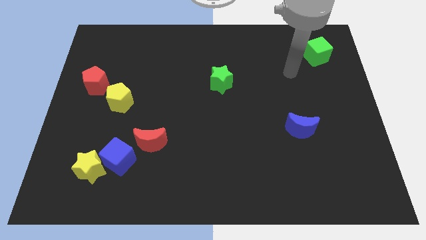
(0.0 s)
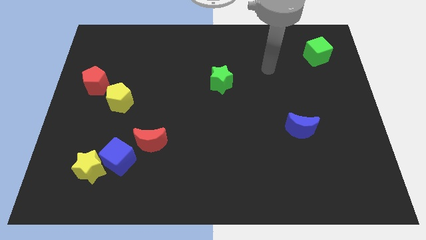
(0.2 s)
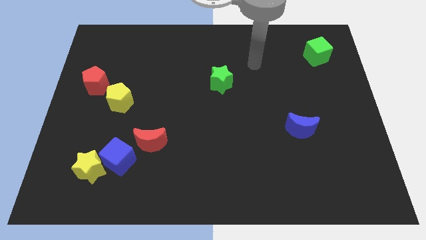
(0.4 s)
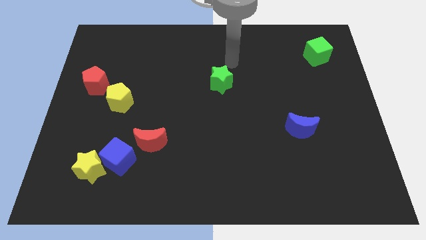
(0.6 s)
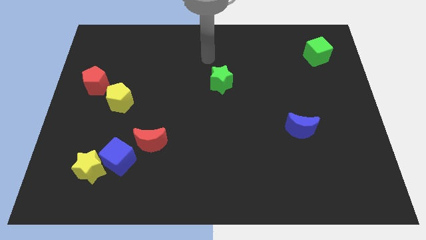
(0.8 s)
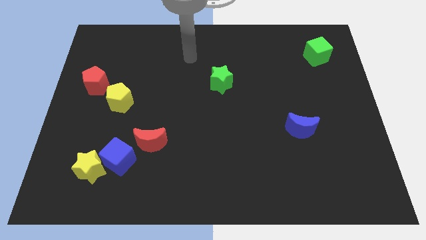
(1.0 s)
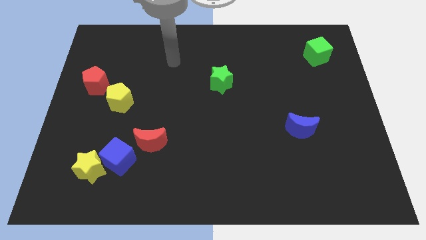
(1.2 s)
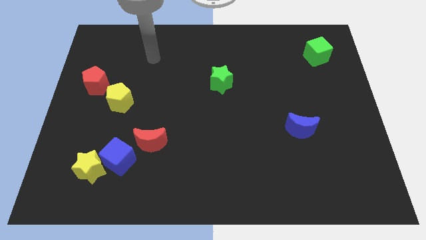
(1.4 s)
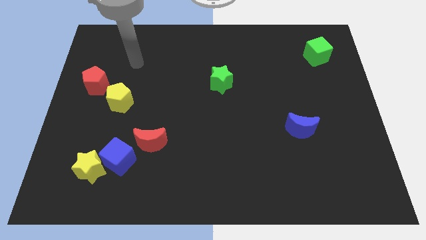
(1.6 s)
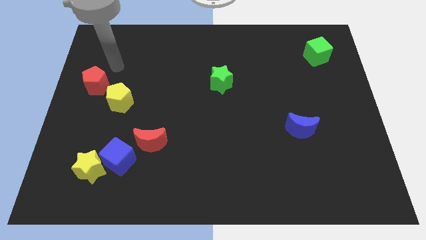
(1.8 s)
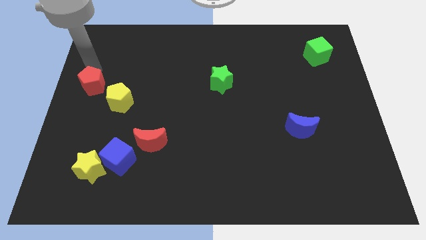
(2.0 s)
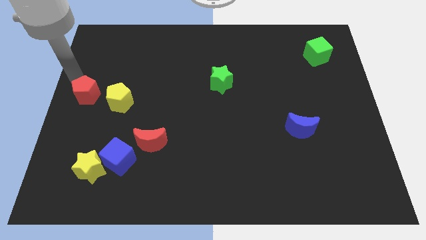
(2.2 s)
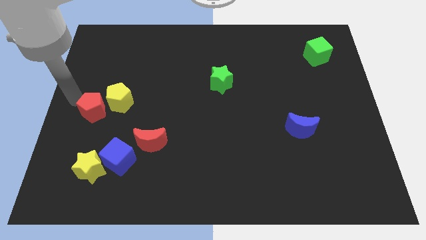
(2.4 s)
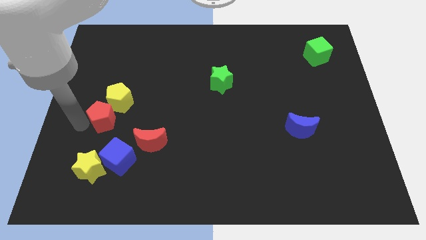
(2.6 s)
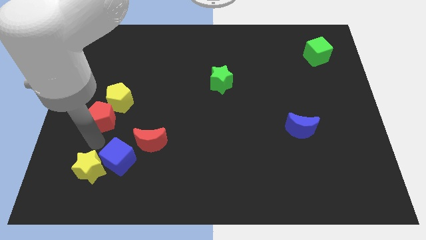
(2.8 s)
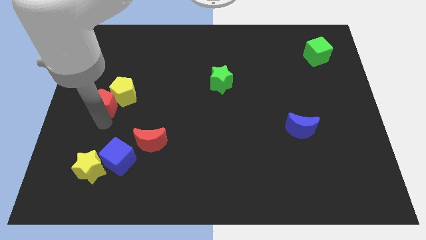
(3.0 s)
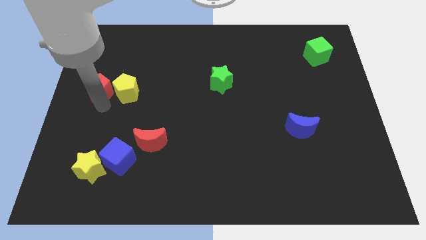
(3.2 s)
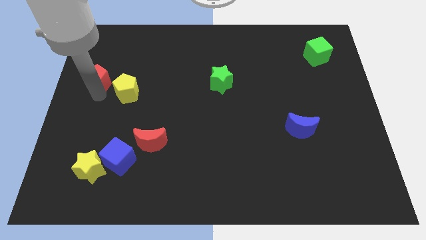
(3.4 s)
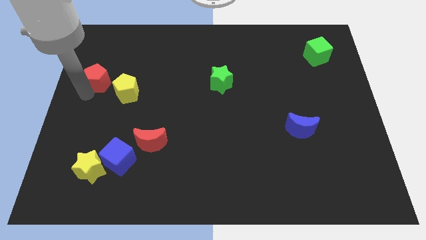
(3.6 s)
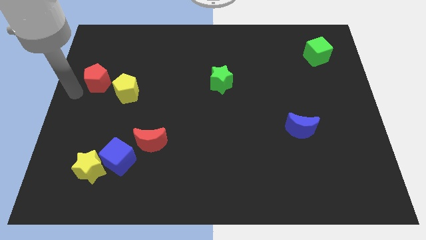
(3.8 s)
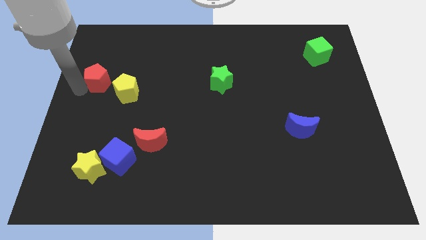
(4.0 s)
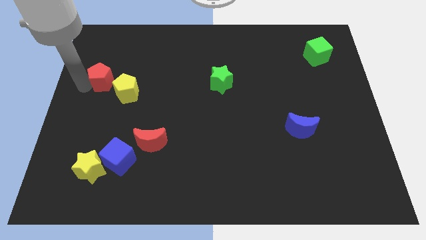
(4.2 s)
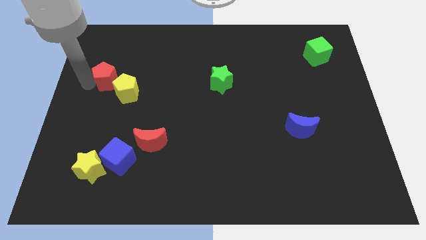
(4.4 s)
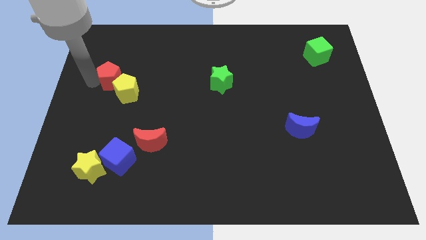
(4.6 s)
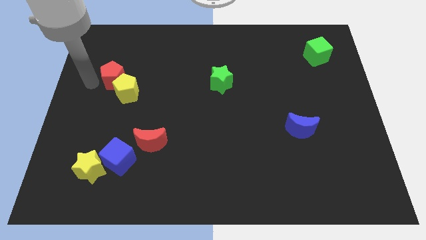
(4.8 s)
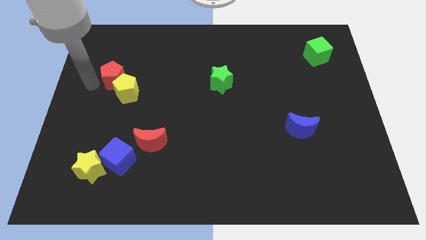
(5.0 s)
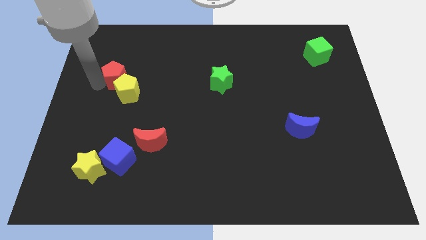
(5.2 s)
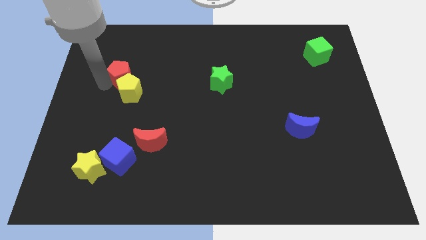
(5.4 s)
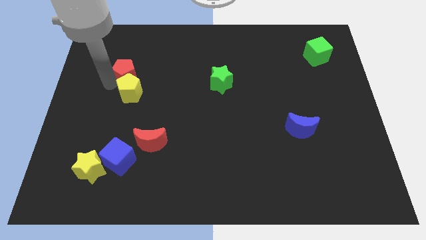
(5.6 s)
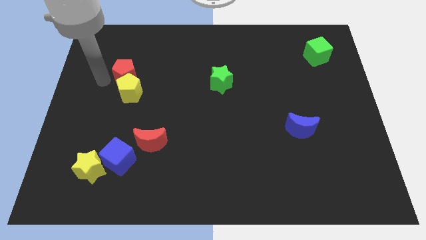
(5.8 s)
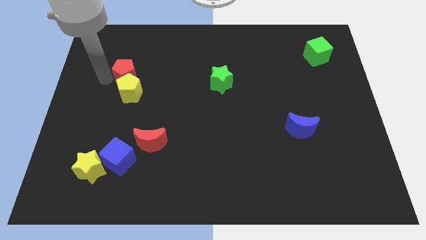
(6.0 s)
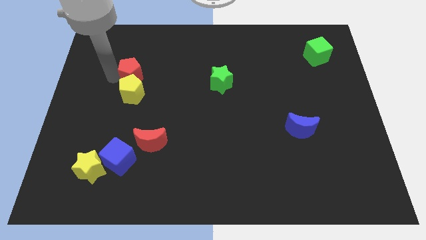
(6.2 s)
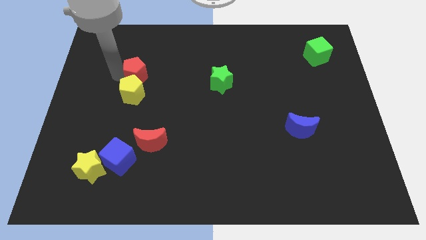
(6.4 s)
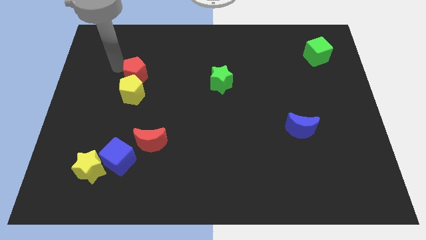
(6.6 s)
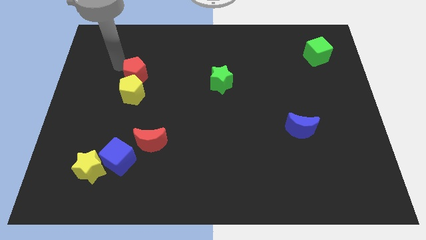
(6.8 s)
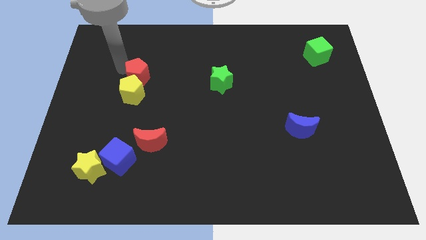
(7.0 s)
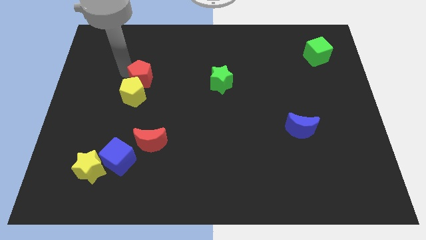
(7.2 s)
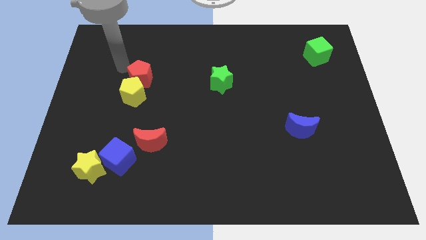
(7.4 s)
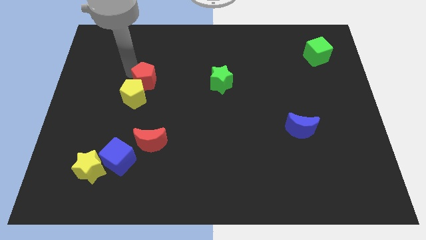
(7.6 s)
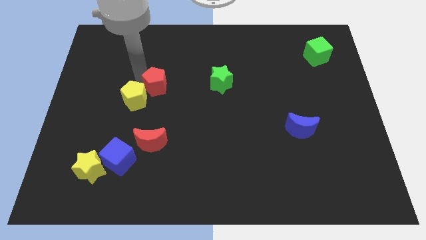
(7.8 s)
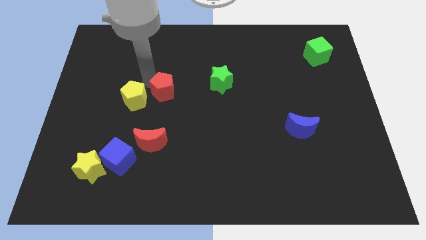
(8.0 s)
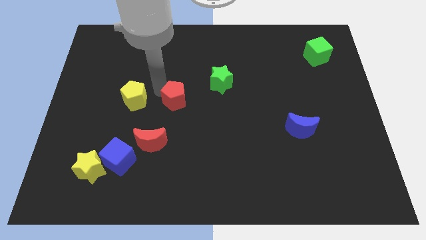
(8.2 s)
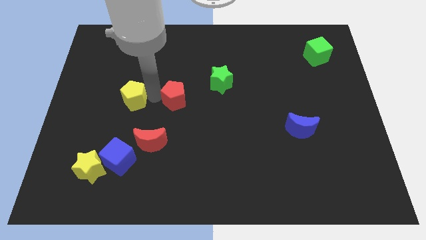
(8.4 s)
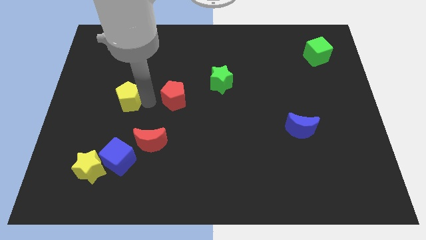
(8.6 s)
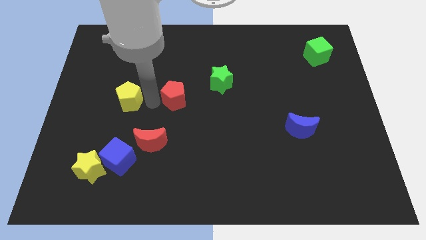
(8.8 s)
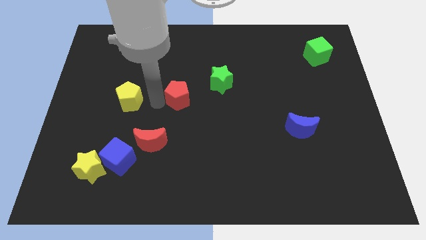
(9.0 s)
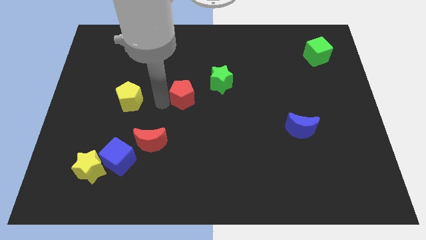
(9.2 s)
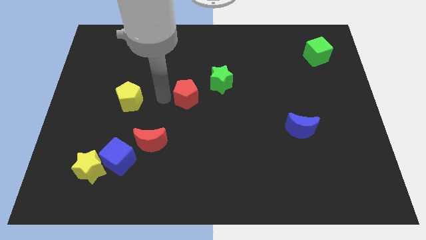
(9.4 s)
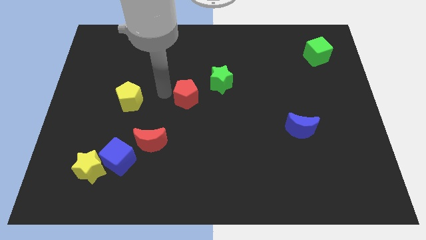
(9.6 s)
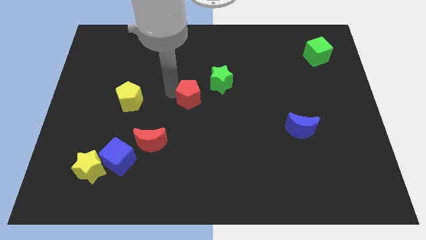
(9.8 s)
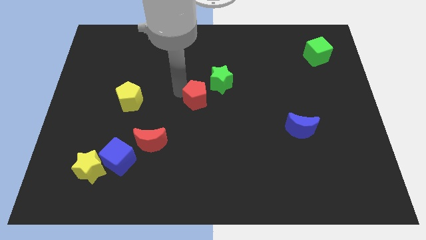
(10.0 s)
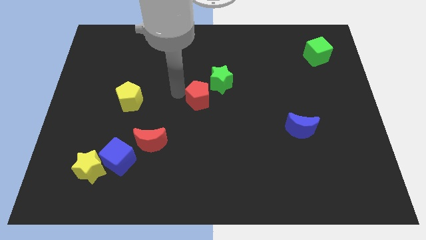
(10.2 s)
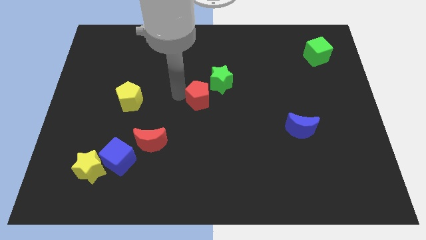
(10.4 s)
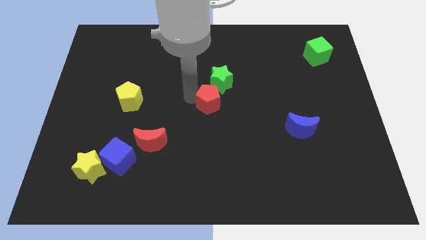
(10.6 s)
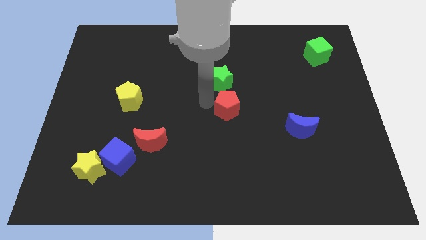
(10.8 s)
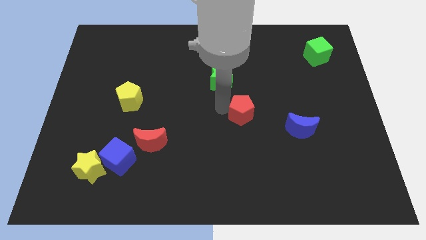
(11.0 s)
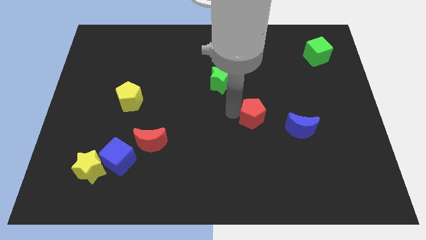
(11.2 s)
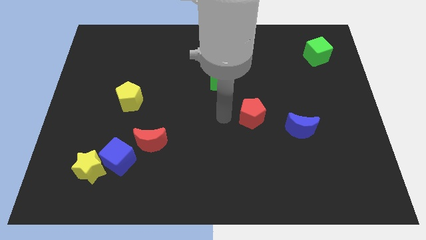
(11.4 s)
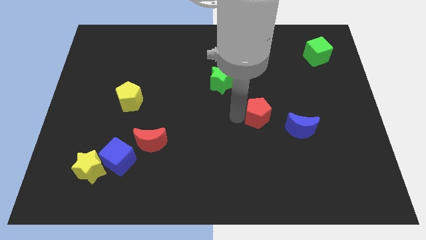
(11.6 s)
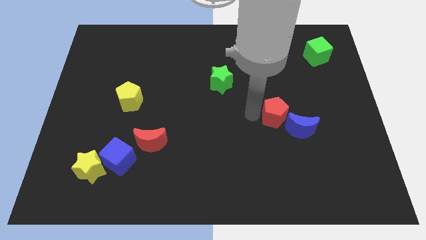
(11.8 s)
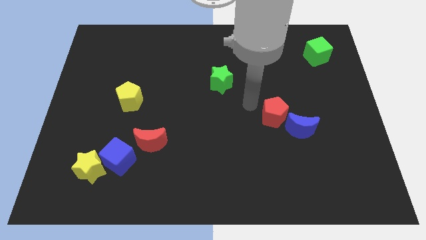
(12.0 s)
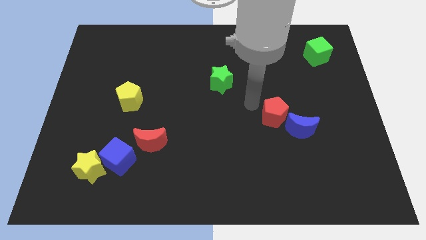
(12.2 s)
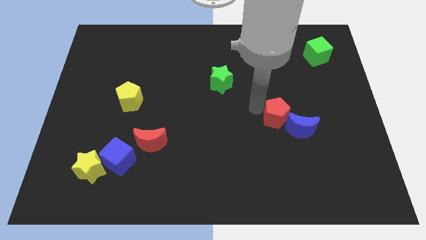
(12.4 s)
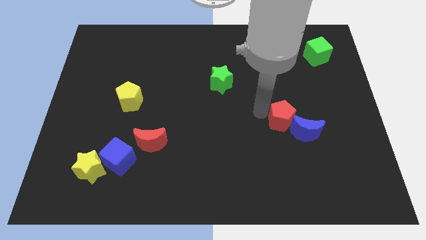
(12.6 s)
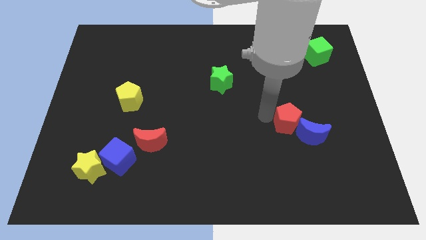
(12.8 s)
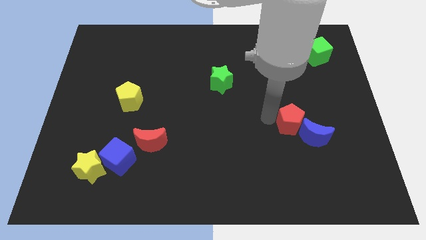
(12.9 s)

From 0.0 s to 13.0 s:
move the red pentagon close to the blue moon
